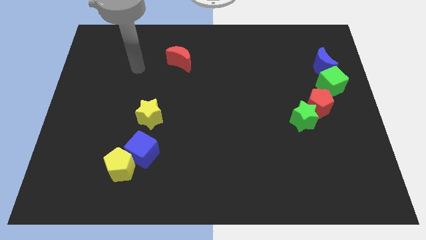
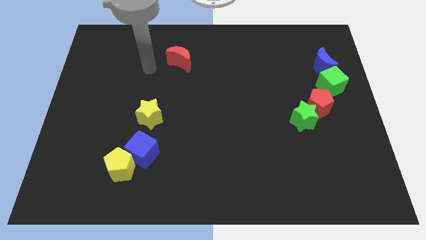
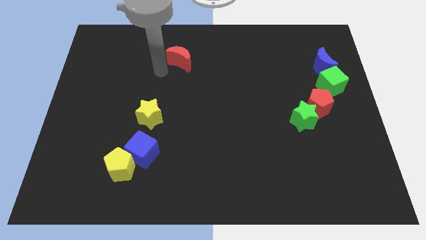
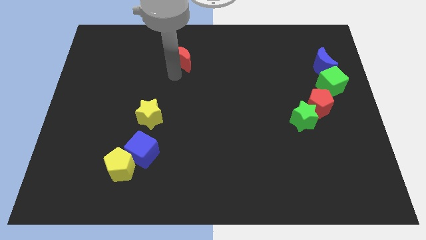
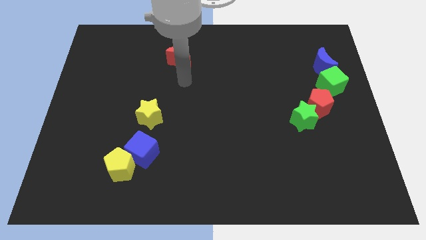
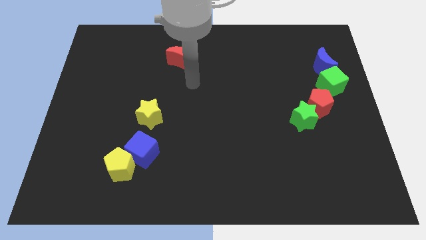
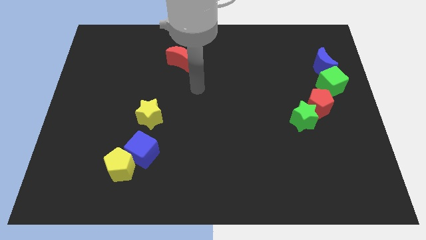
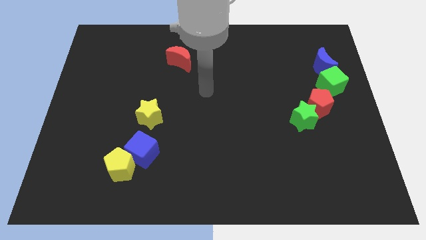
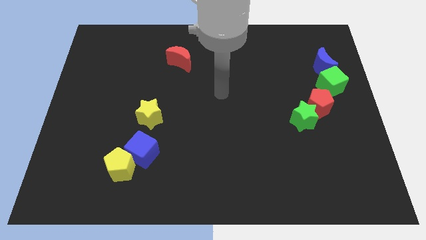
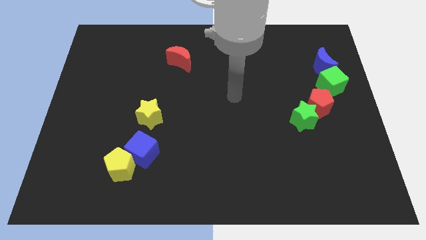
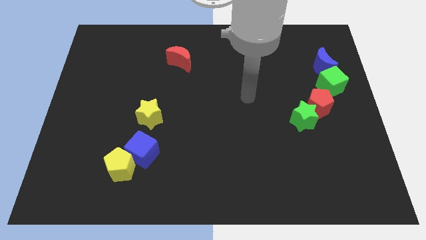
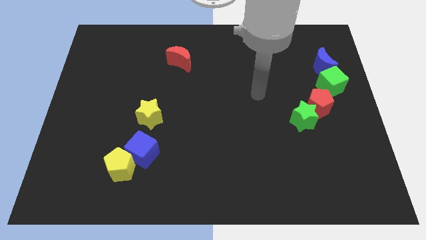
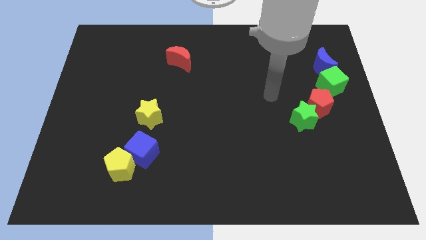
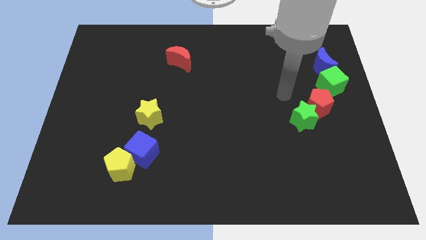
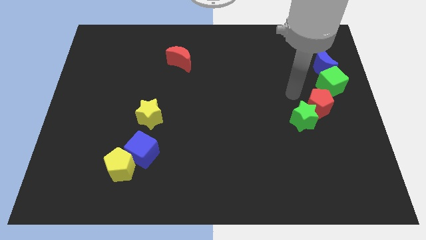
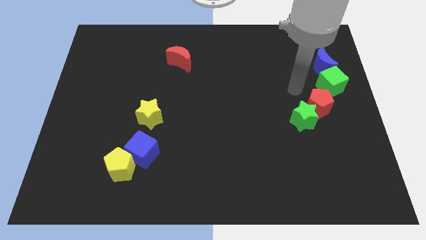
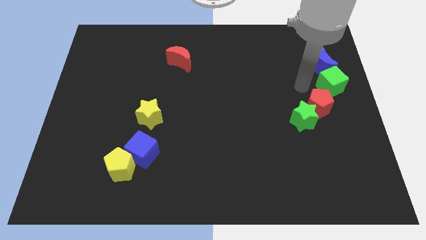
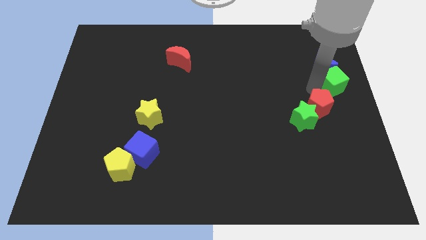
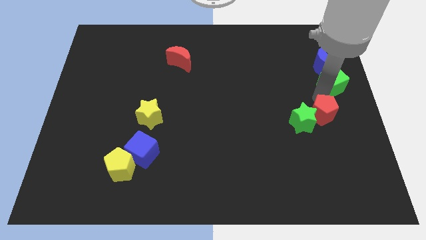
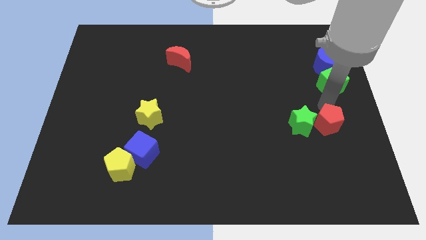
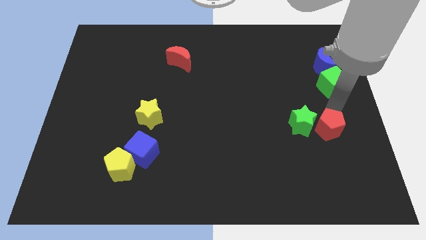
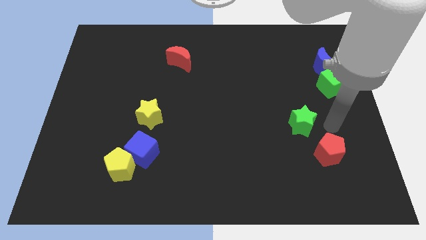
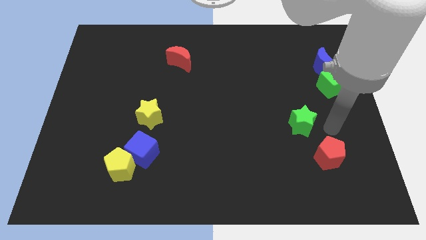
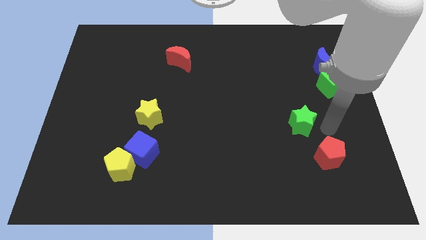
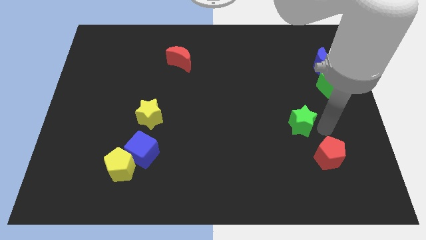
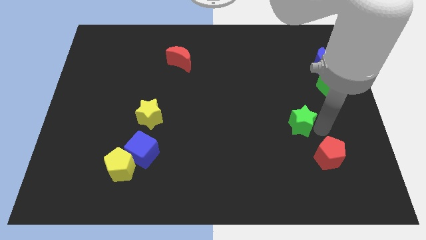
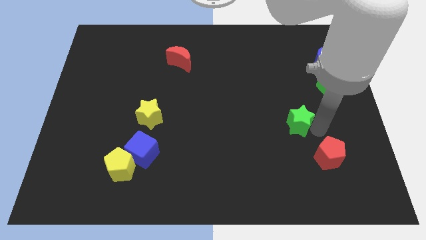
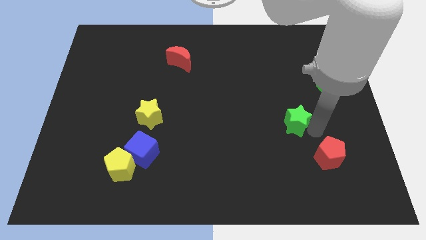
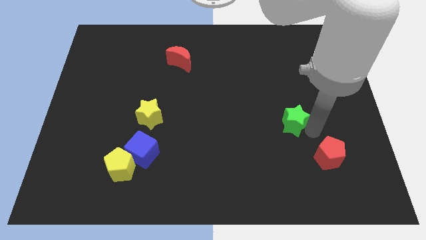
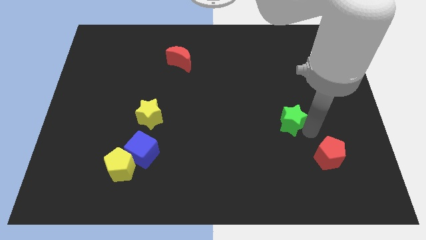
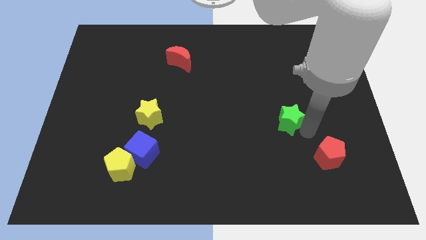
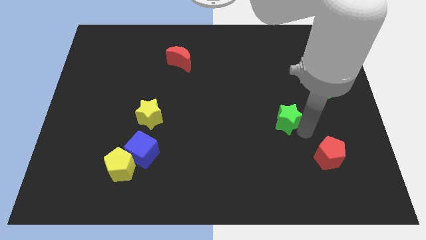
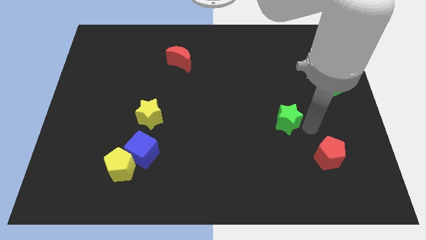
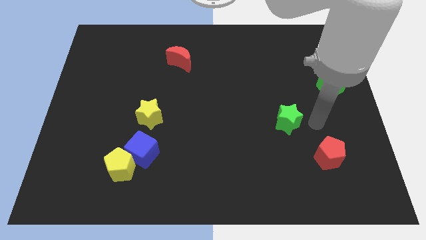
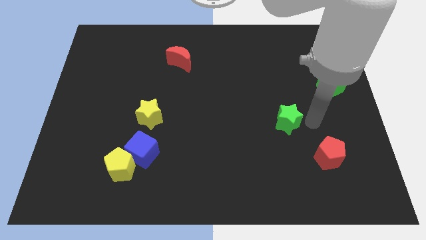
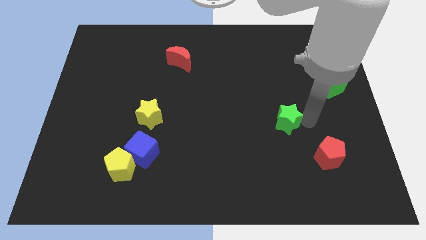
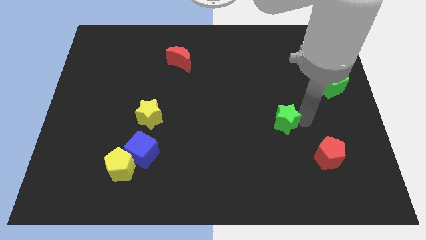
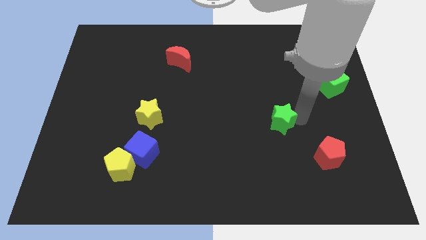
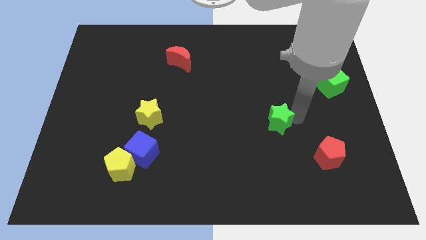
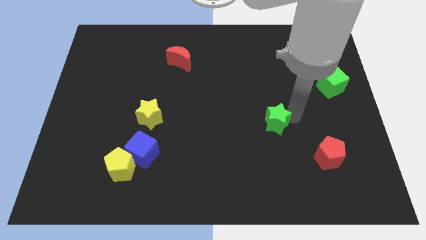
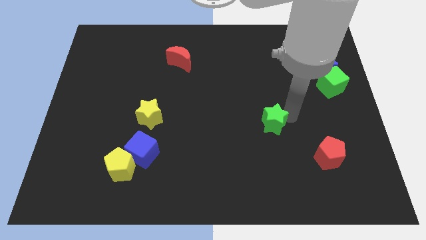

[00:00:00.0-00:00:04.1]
slide the green star left a bit

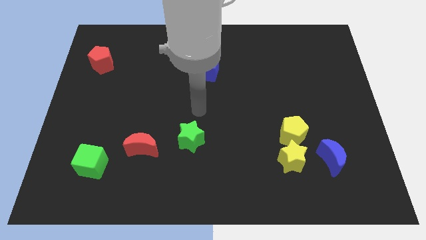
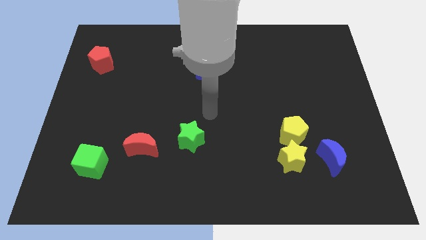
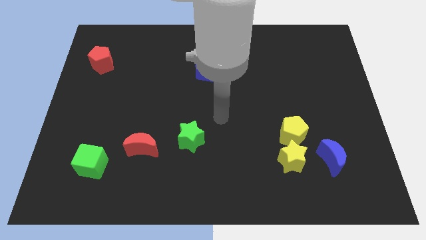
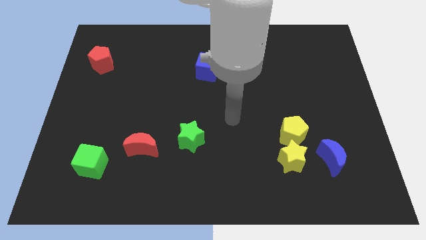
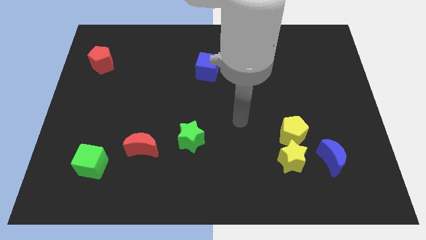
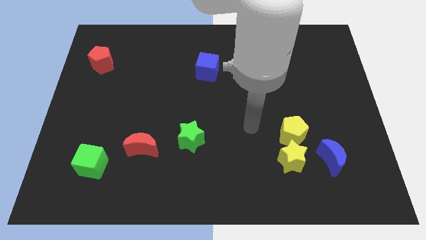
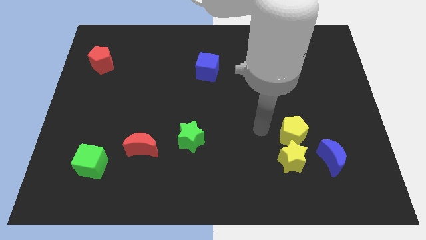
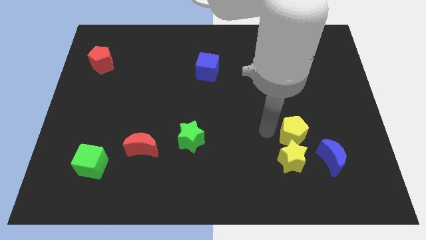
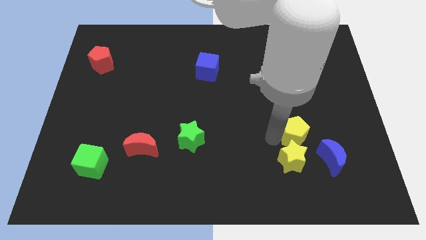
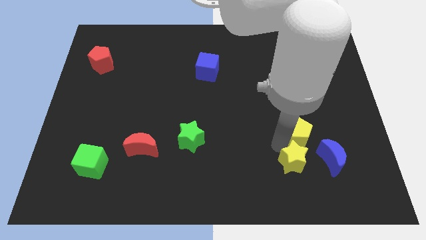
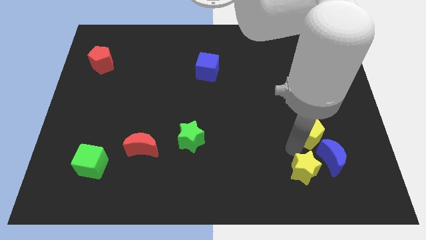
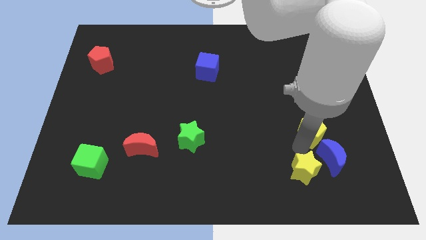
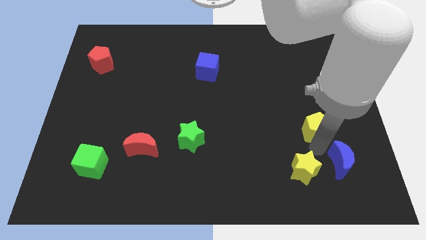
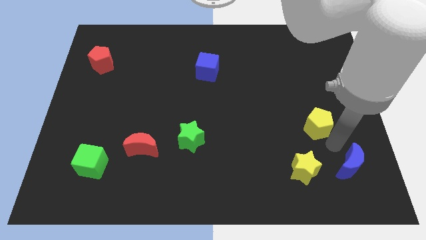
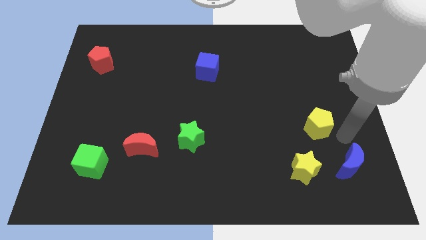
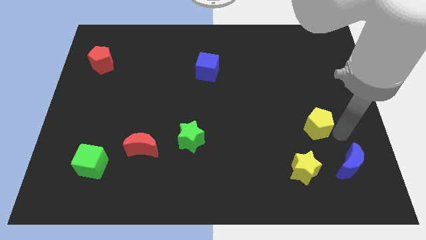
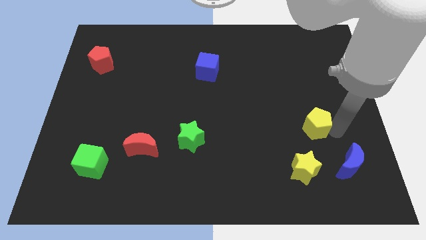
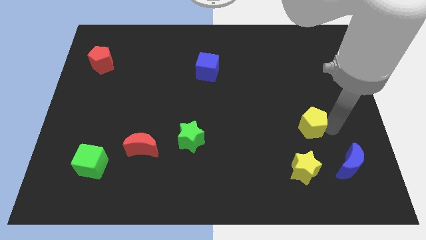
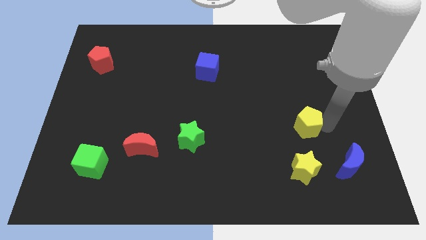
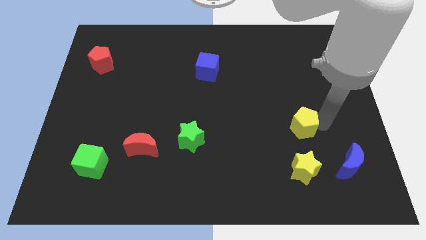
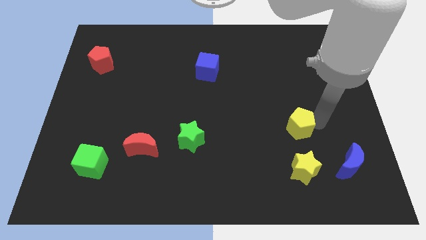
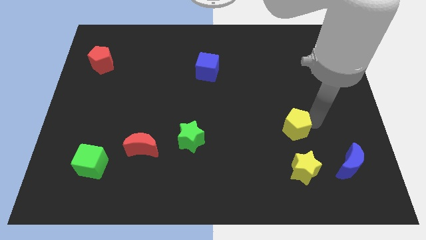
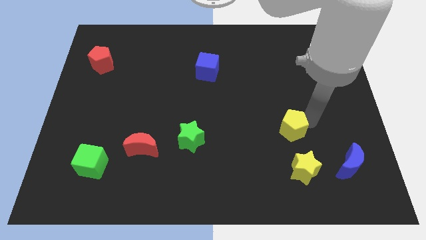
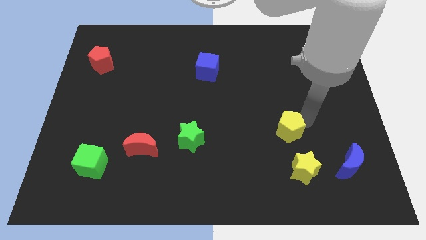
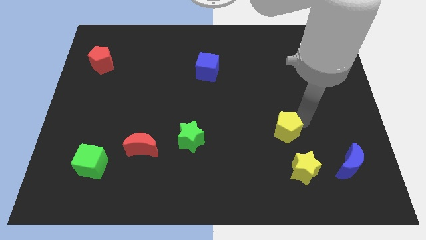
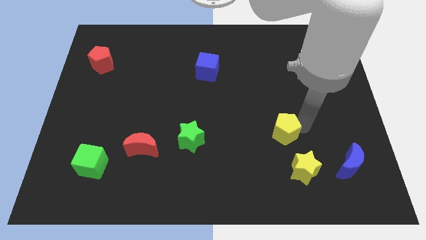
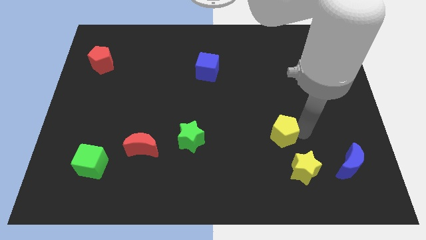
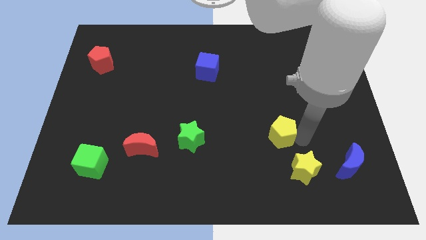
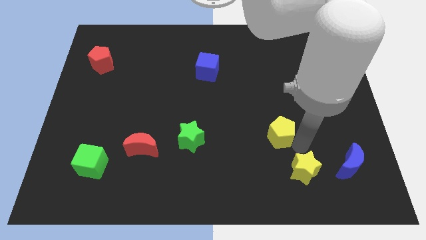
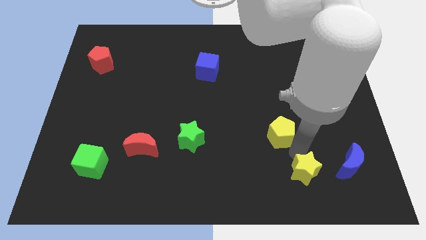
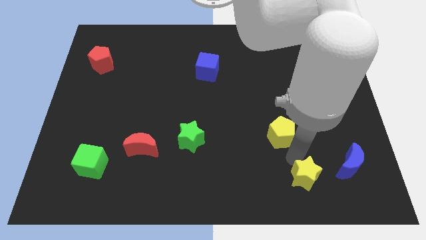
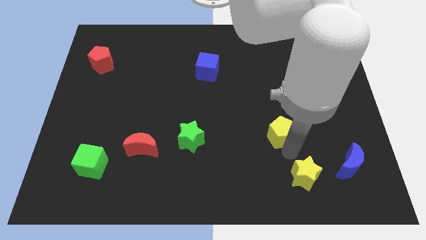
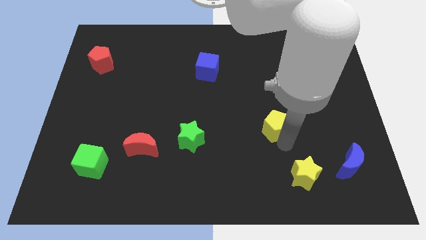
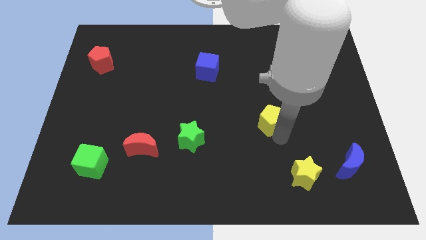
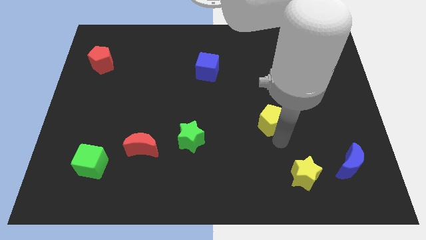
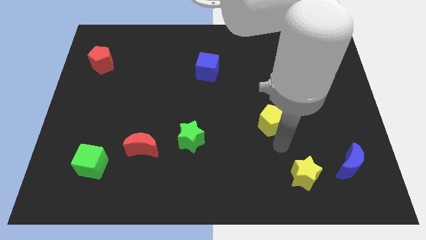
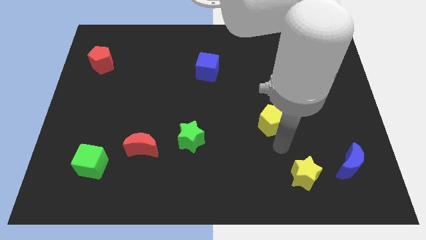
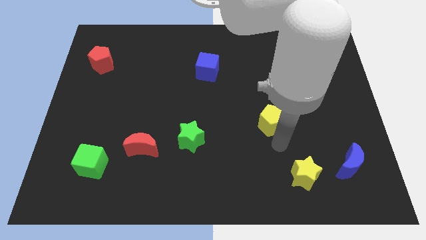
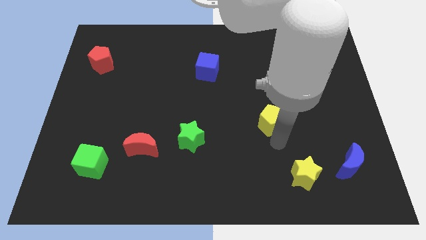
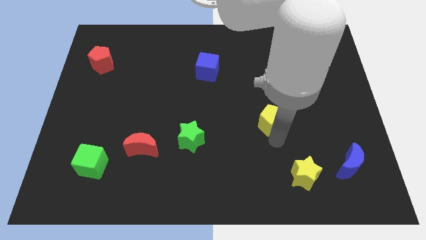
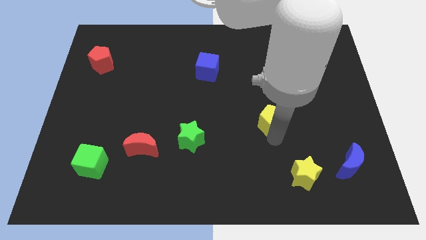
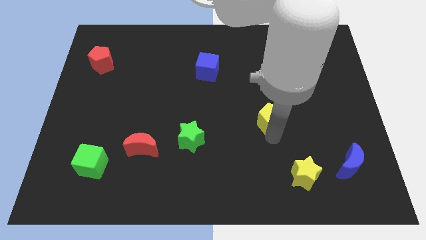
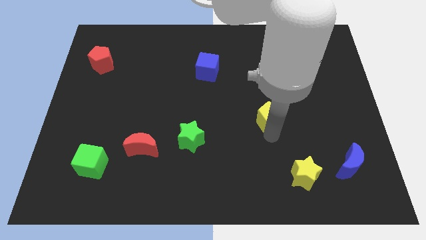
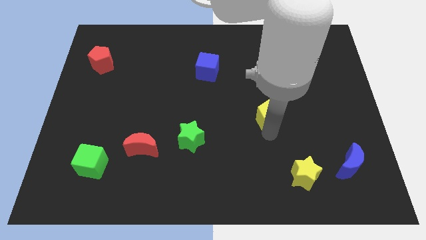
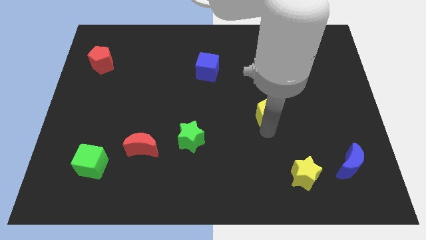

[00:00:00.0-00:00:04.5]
slightly slide the yellow pentagon upwards and left
